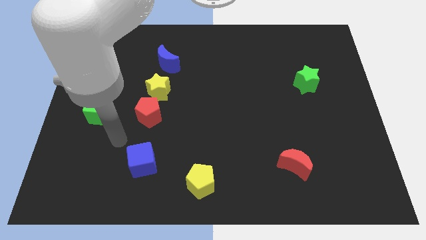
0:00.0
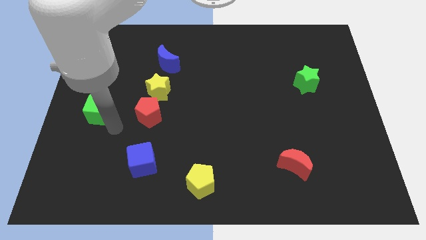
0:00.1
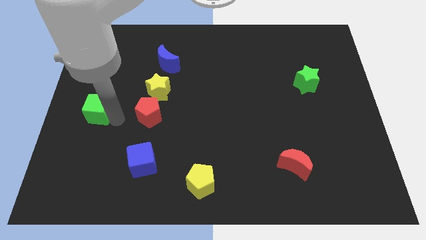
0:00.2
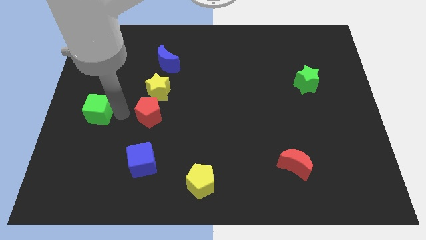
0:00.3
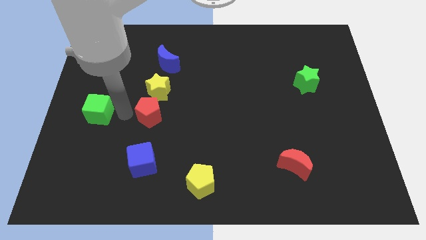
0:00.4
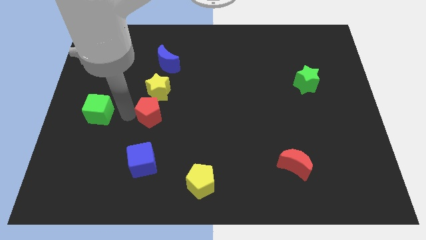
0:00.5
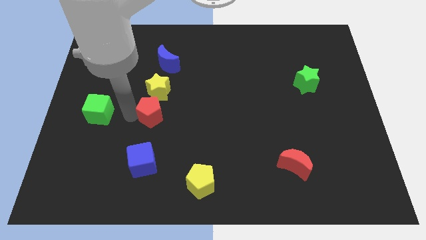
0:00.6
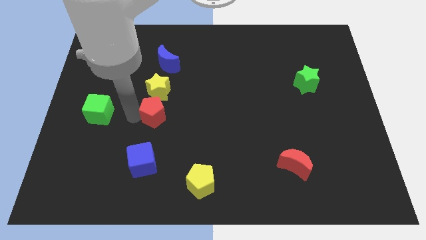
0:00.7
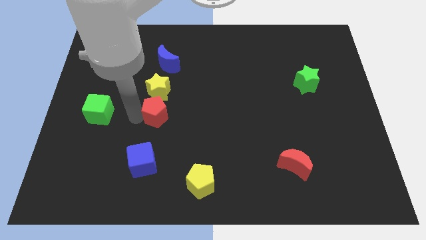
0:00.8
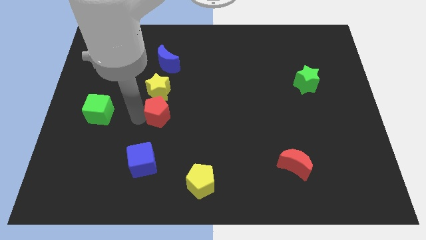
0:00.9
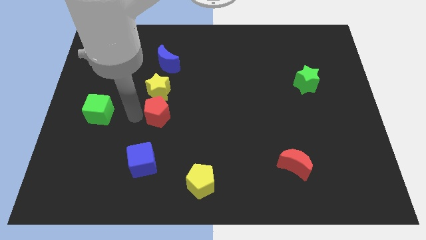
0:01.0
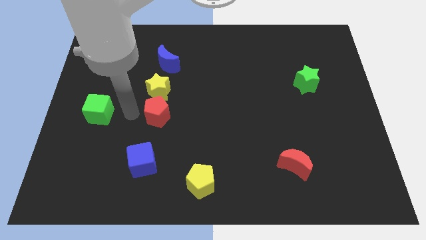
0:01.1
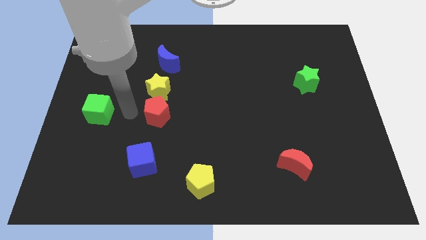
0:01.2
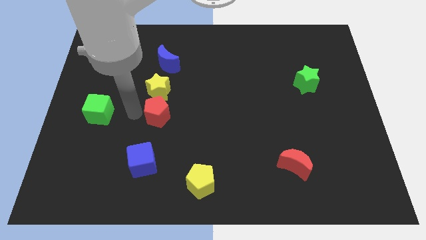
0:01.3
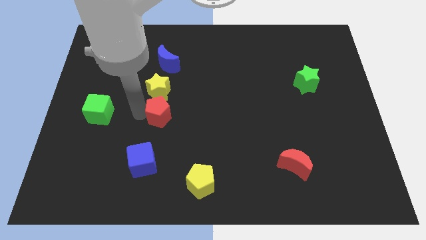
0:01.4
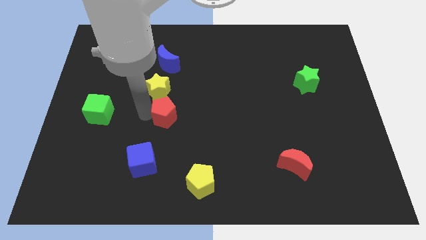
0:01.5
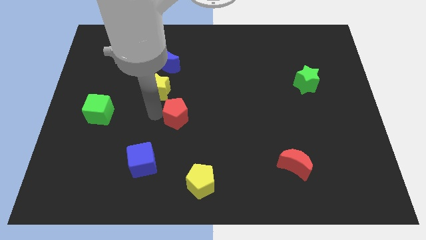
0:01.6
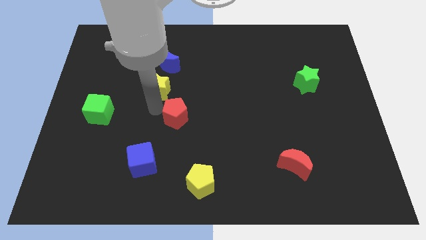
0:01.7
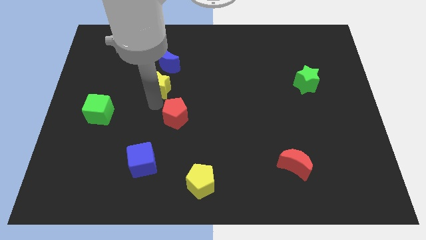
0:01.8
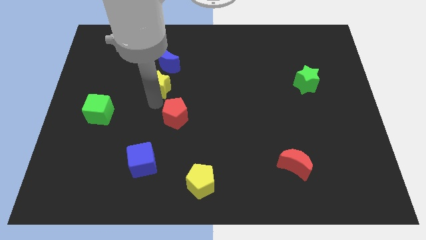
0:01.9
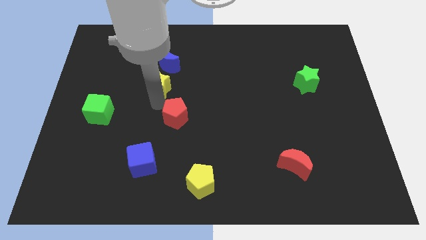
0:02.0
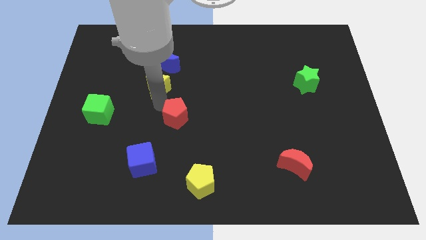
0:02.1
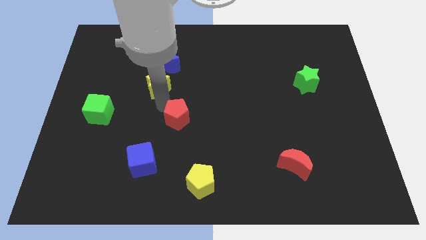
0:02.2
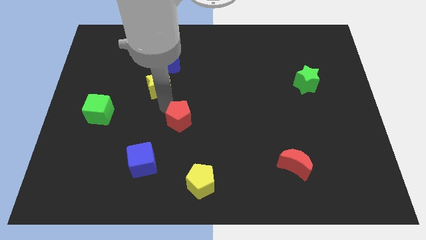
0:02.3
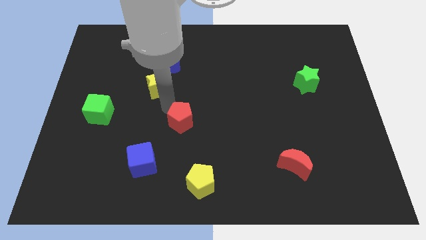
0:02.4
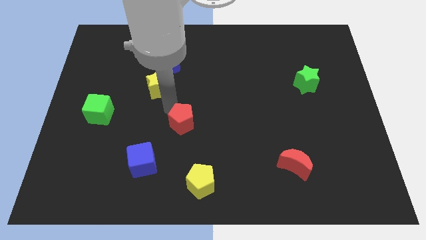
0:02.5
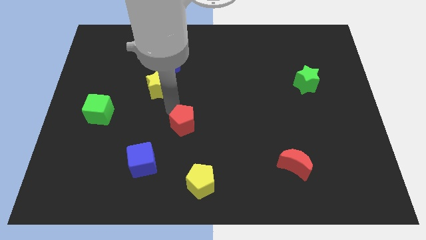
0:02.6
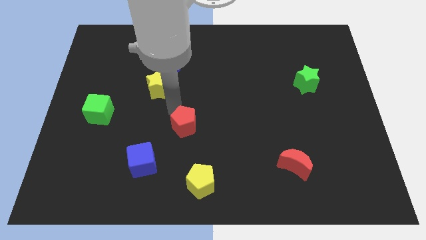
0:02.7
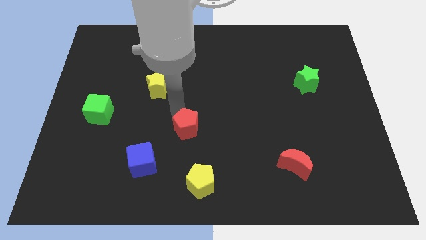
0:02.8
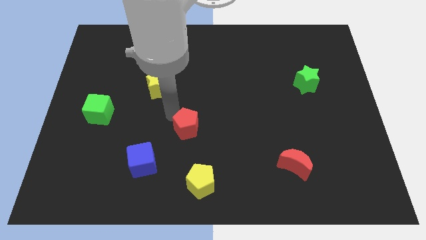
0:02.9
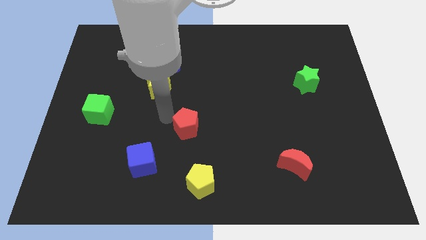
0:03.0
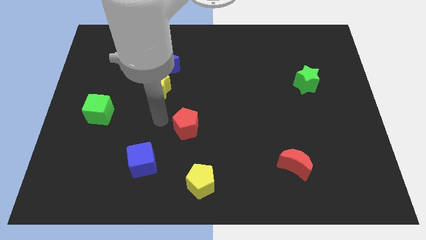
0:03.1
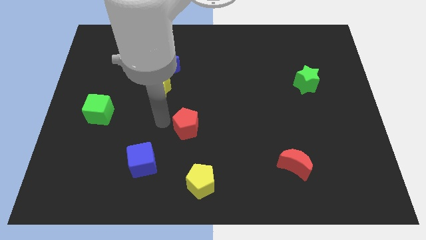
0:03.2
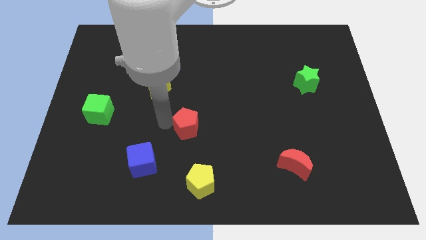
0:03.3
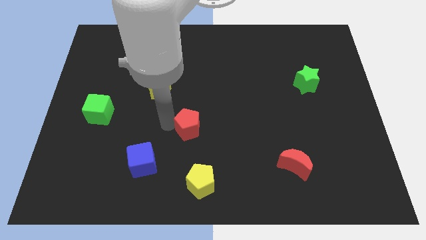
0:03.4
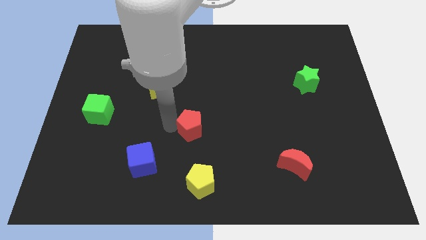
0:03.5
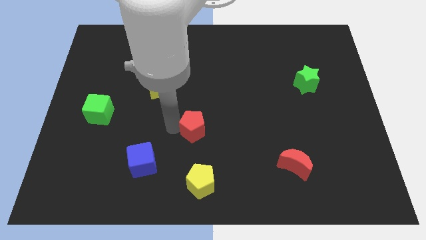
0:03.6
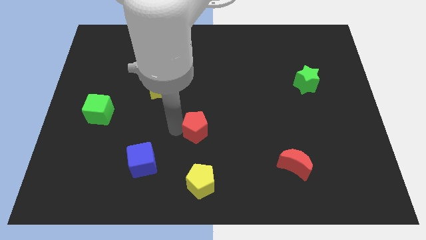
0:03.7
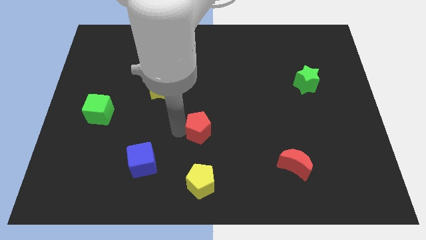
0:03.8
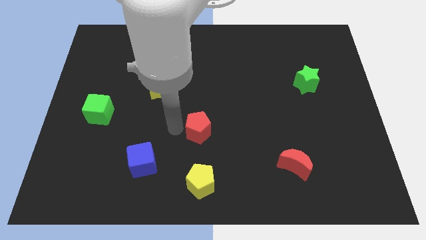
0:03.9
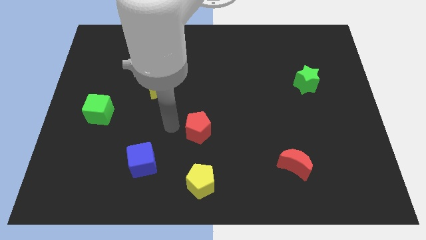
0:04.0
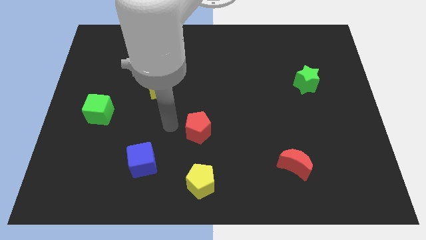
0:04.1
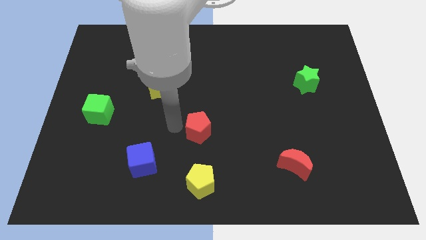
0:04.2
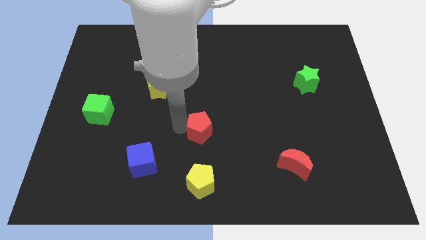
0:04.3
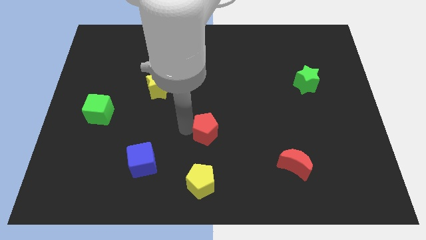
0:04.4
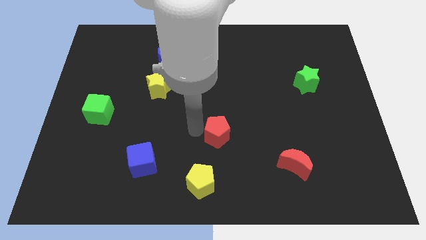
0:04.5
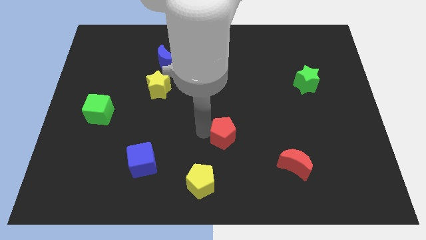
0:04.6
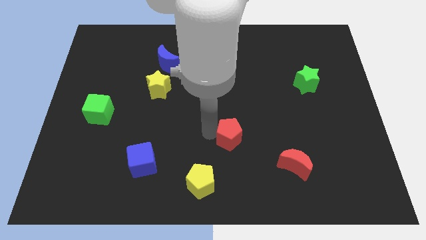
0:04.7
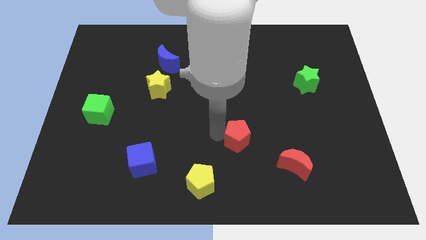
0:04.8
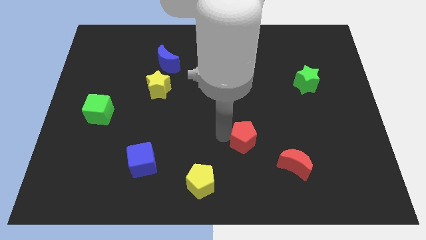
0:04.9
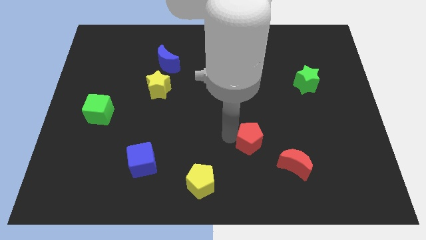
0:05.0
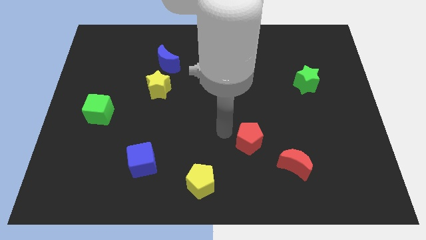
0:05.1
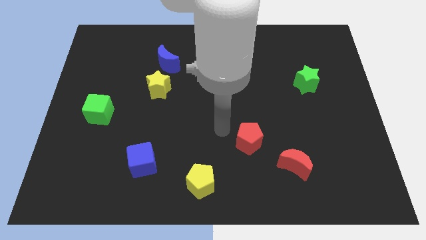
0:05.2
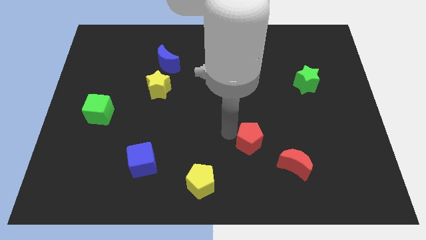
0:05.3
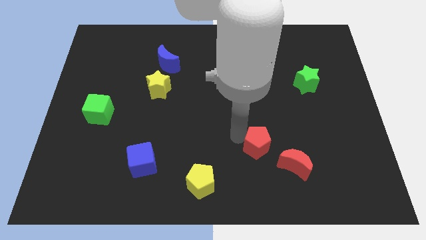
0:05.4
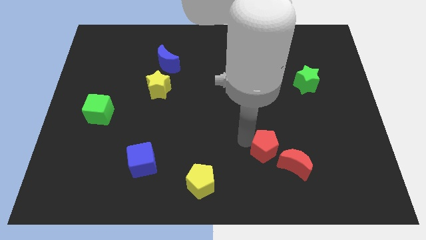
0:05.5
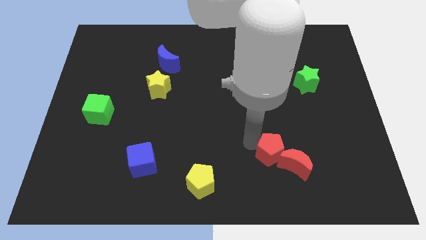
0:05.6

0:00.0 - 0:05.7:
put the red pentagon to the red moon

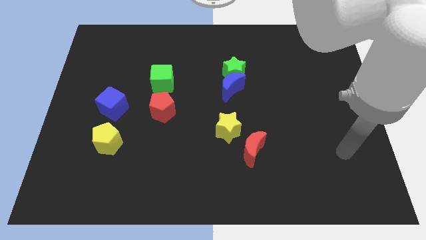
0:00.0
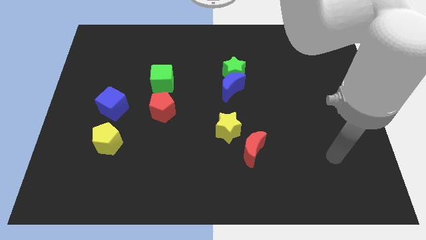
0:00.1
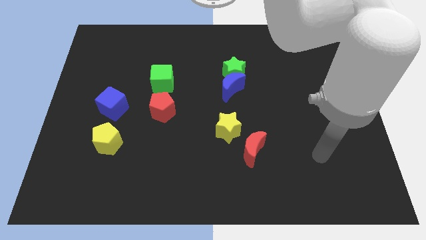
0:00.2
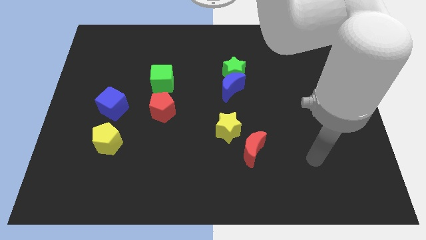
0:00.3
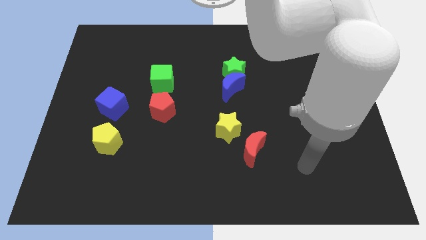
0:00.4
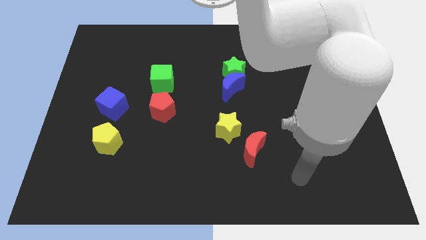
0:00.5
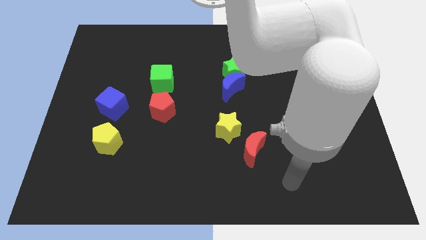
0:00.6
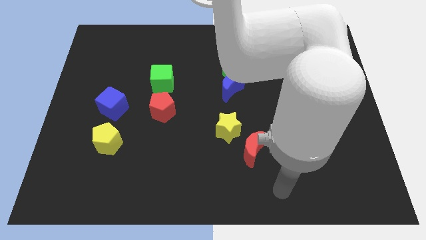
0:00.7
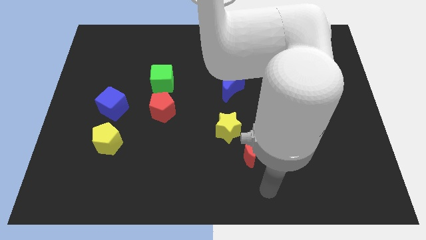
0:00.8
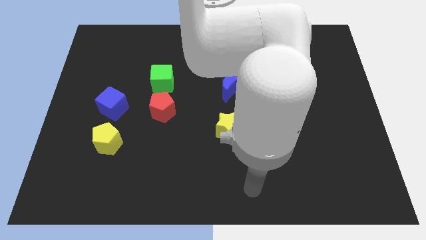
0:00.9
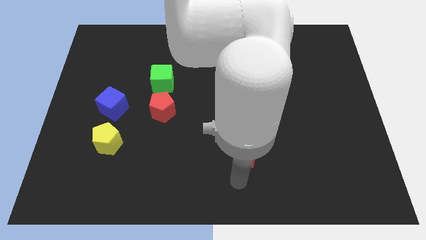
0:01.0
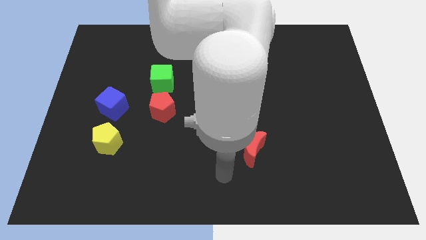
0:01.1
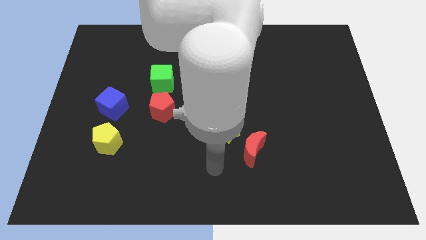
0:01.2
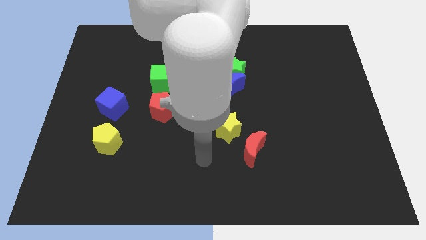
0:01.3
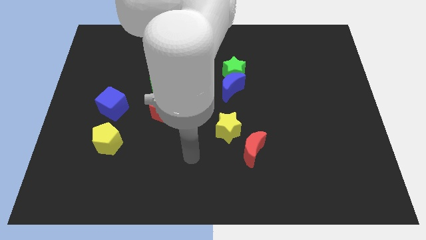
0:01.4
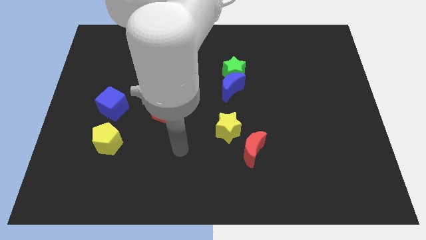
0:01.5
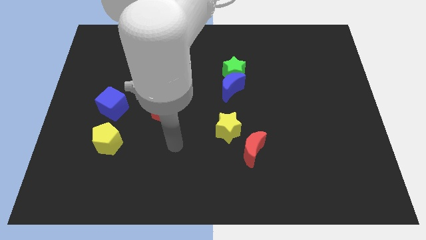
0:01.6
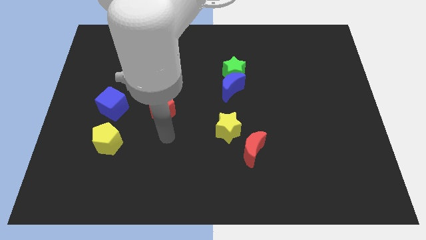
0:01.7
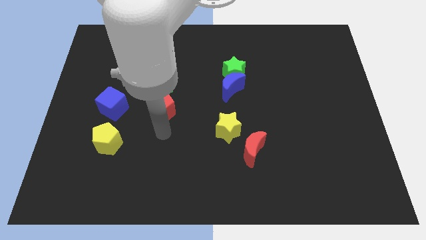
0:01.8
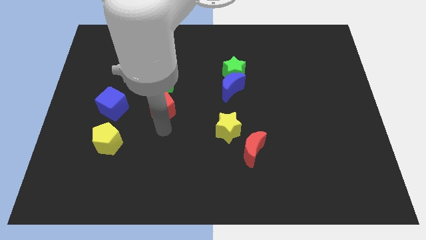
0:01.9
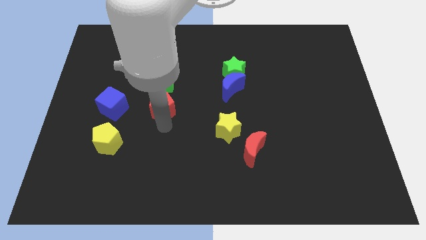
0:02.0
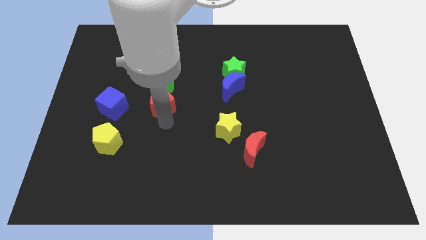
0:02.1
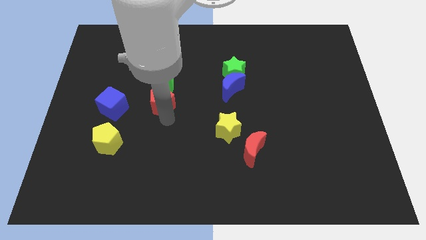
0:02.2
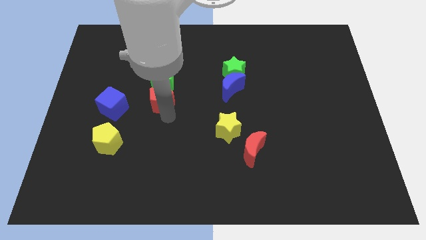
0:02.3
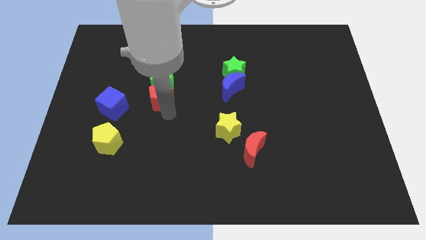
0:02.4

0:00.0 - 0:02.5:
slide the red pentagon next to the green cube

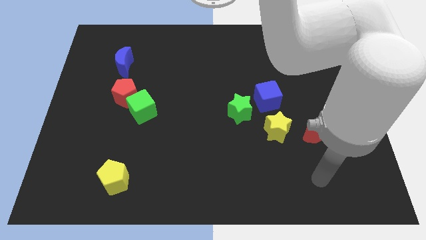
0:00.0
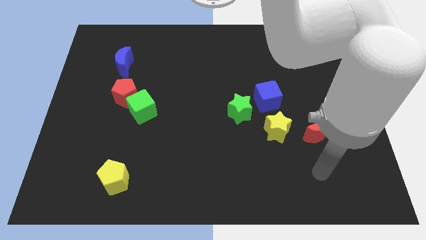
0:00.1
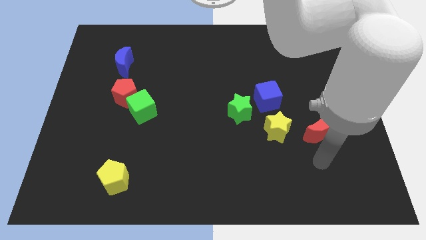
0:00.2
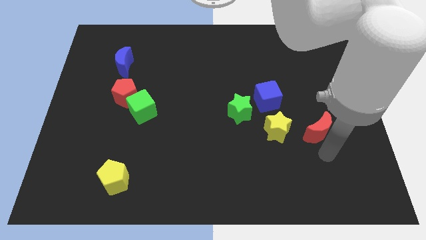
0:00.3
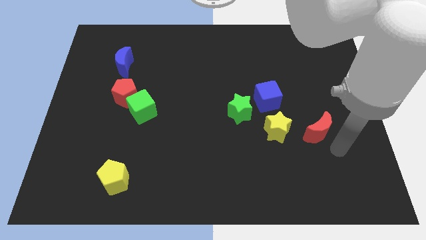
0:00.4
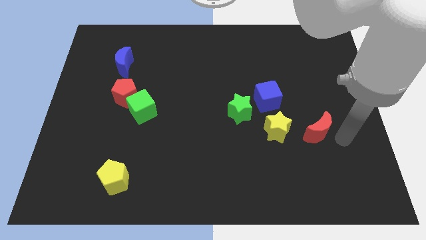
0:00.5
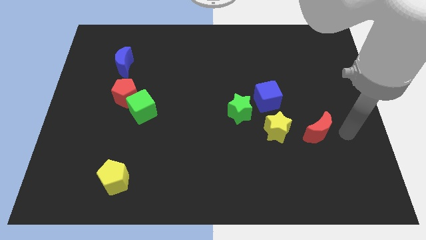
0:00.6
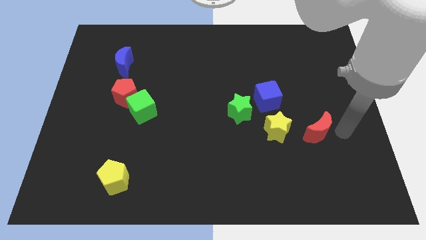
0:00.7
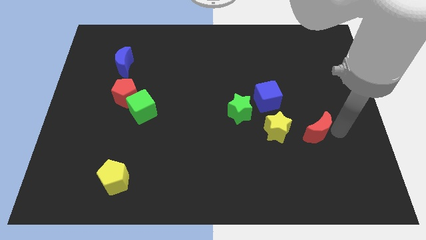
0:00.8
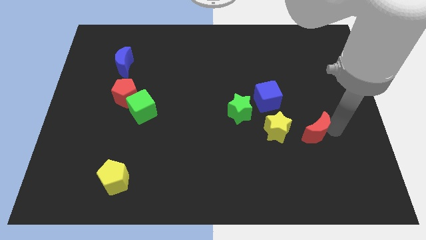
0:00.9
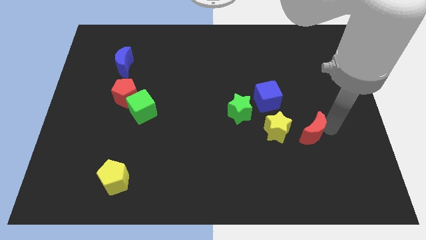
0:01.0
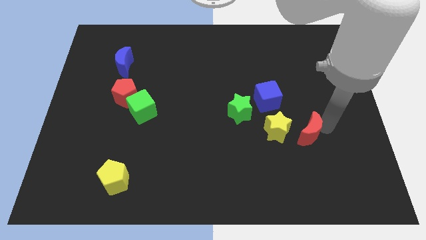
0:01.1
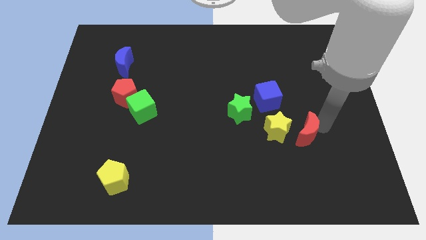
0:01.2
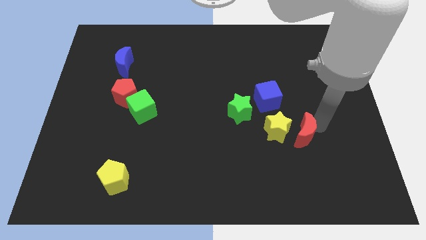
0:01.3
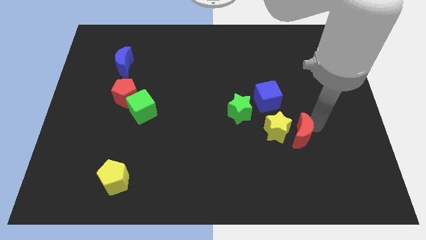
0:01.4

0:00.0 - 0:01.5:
move the red moon next to the yellow star
